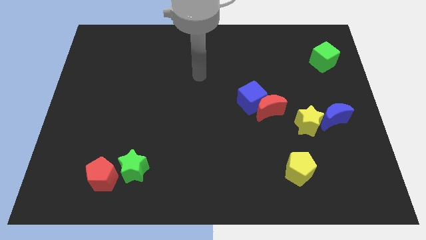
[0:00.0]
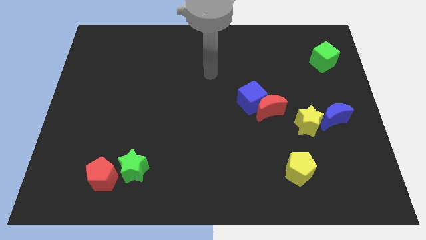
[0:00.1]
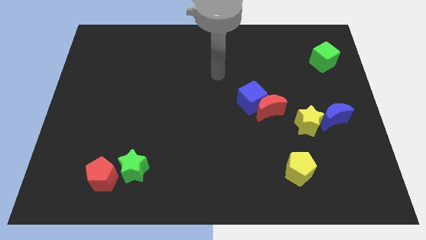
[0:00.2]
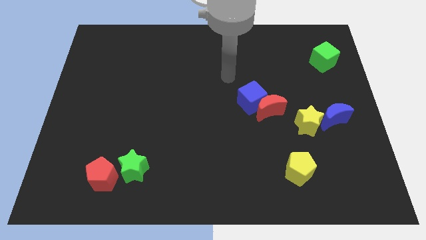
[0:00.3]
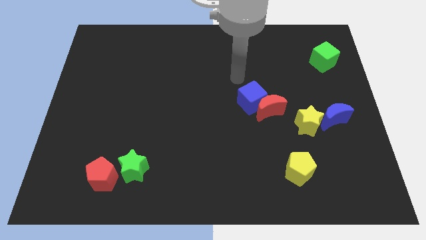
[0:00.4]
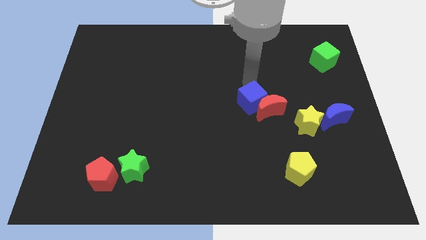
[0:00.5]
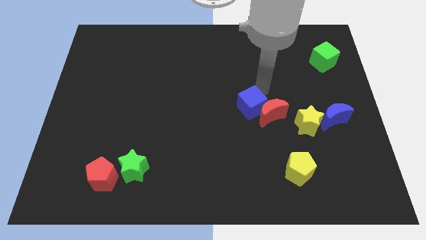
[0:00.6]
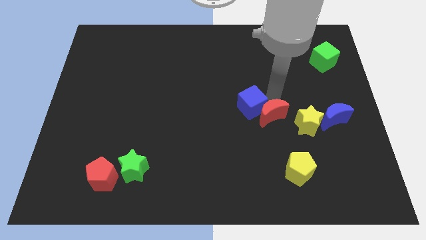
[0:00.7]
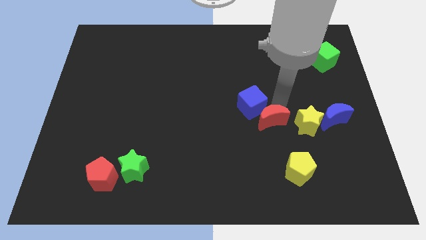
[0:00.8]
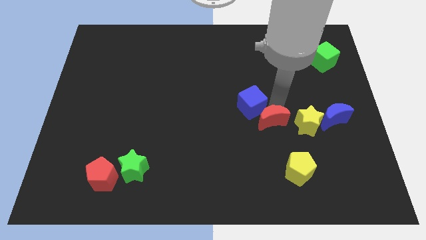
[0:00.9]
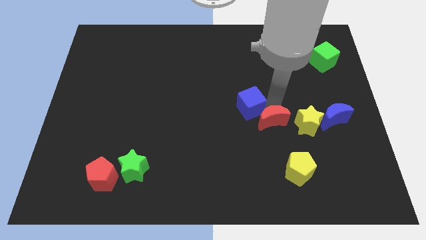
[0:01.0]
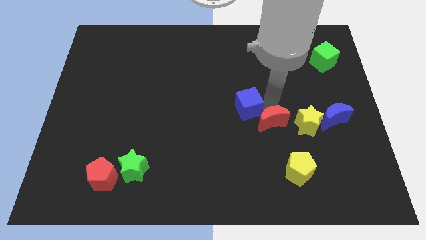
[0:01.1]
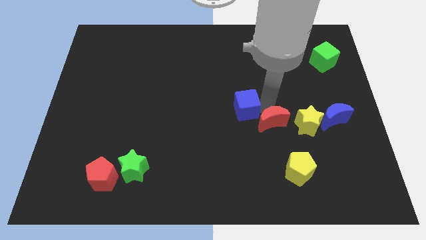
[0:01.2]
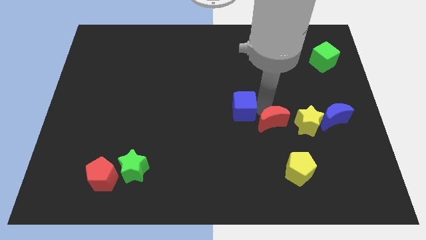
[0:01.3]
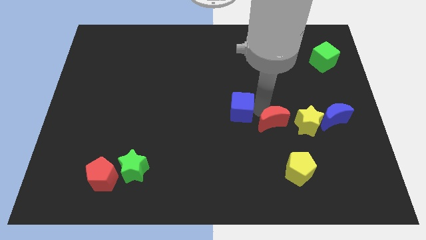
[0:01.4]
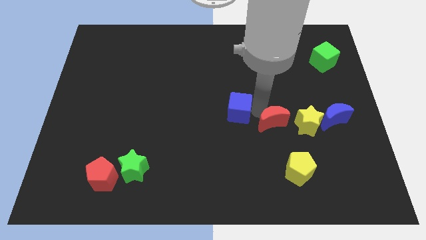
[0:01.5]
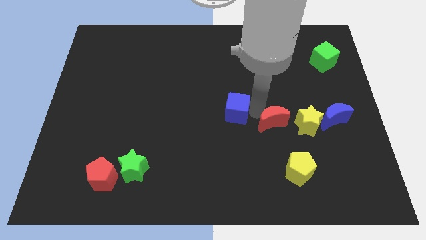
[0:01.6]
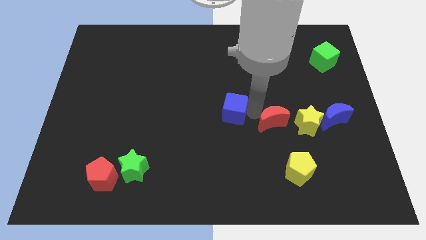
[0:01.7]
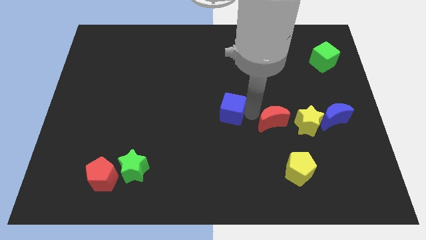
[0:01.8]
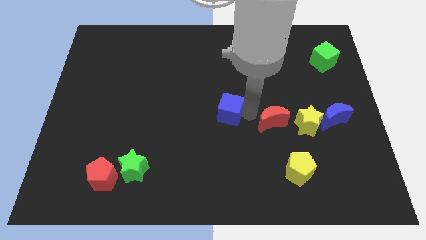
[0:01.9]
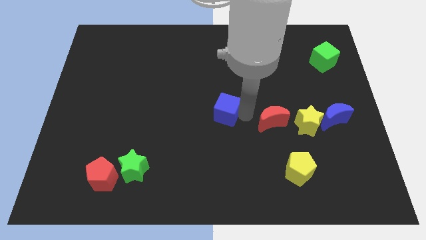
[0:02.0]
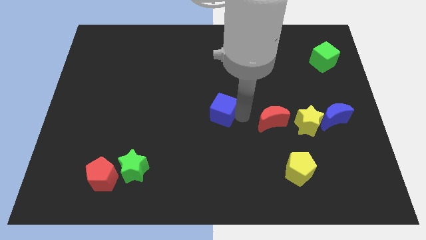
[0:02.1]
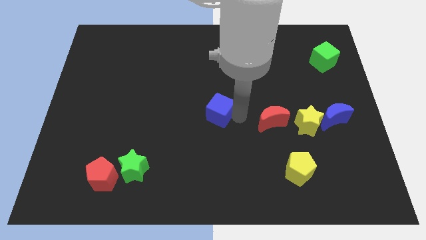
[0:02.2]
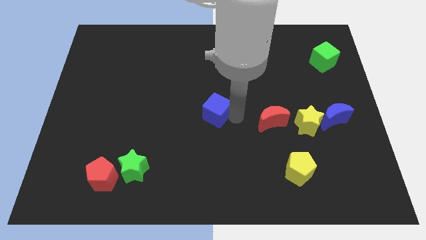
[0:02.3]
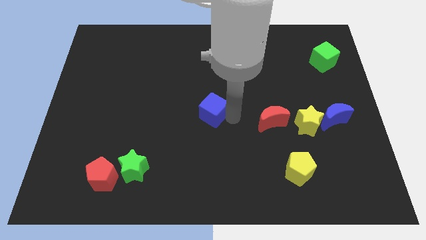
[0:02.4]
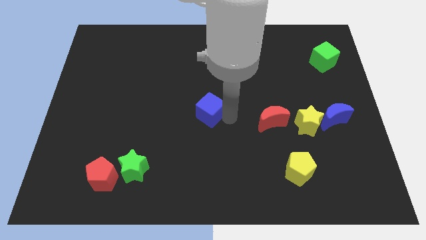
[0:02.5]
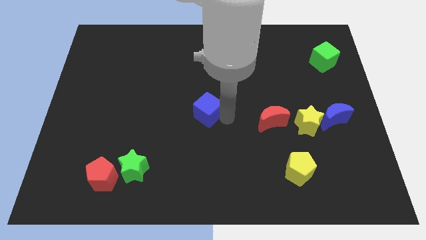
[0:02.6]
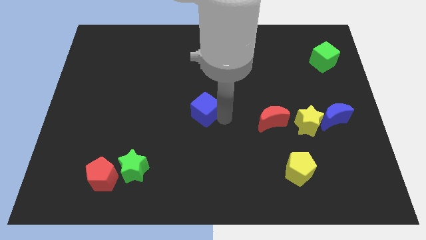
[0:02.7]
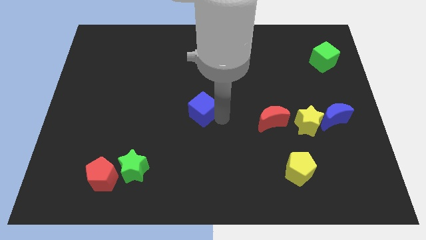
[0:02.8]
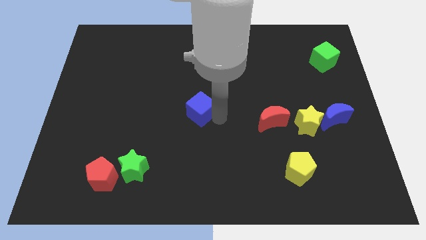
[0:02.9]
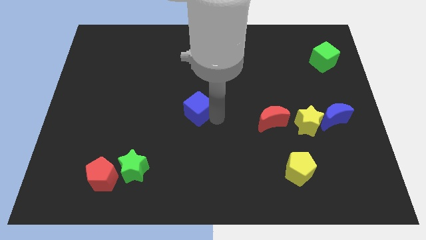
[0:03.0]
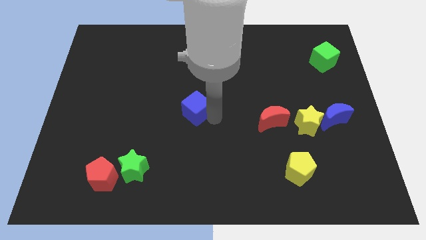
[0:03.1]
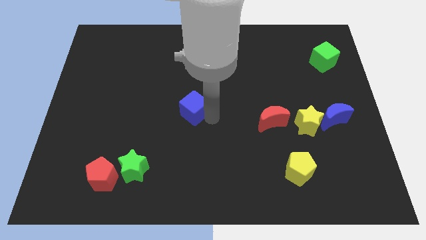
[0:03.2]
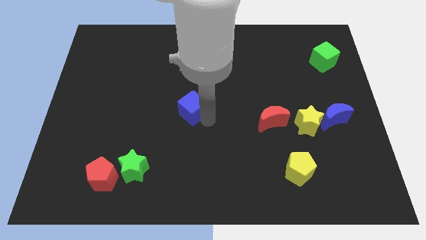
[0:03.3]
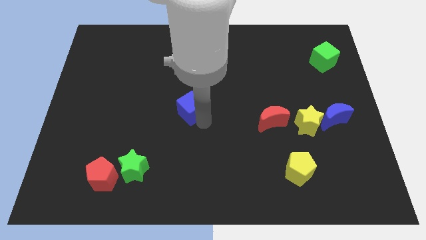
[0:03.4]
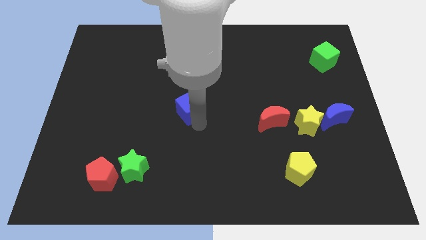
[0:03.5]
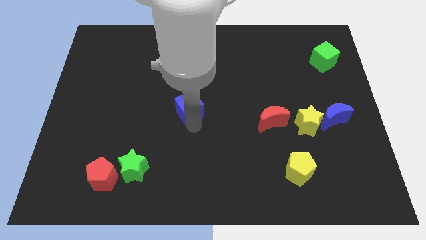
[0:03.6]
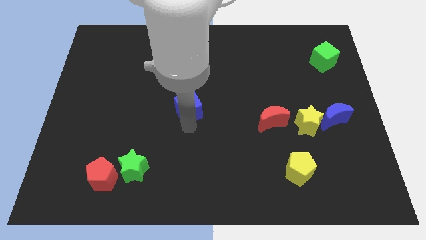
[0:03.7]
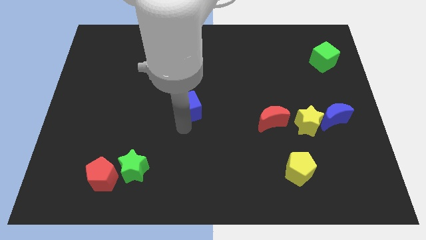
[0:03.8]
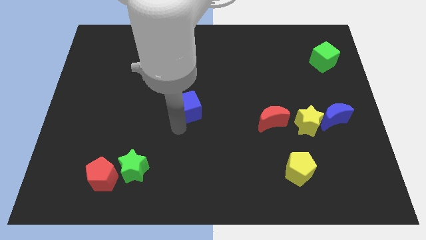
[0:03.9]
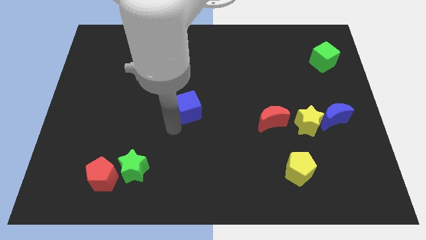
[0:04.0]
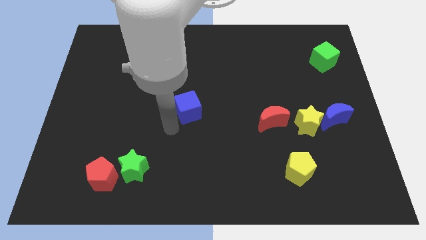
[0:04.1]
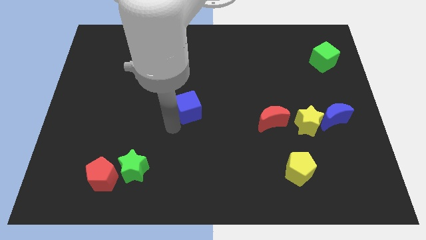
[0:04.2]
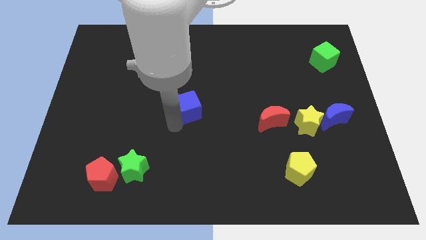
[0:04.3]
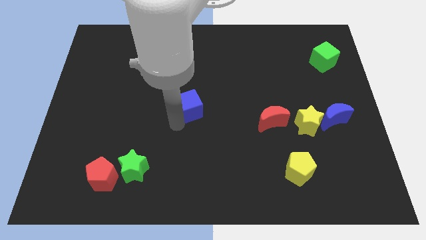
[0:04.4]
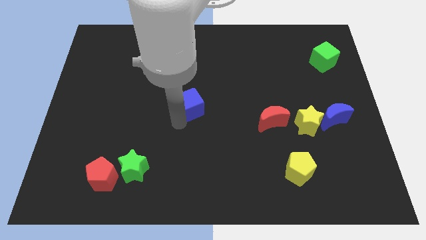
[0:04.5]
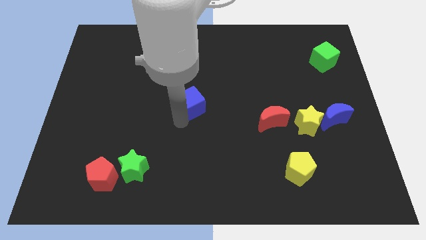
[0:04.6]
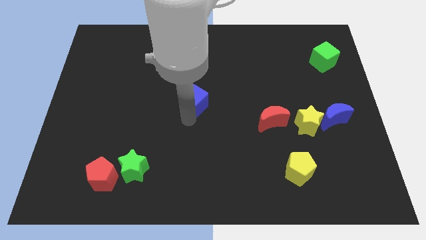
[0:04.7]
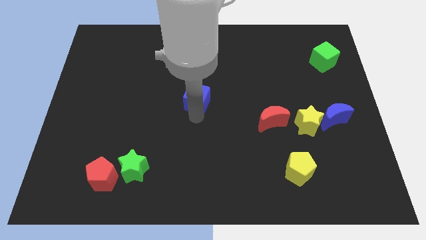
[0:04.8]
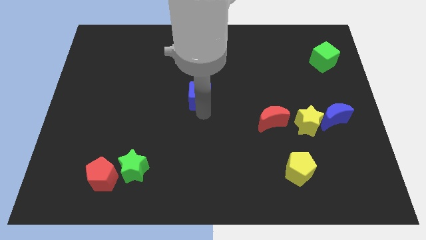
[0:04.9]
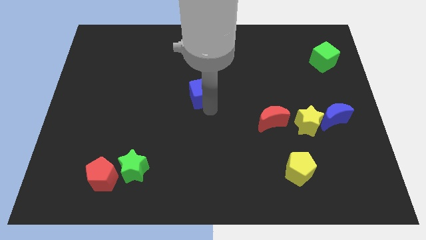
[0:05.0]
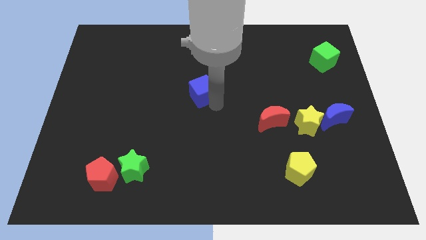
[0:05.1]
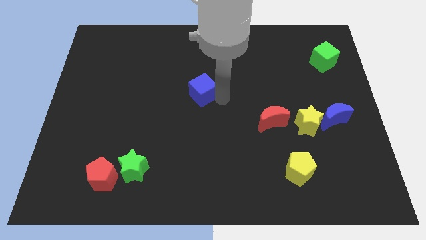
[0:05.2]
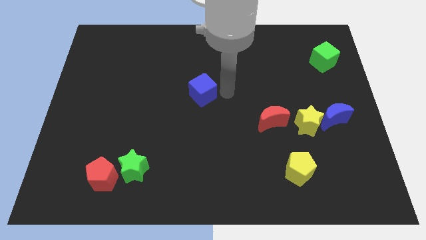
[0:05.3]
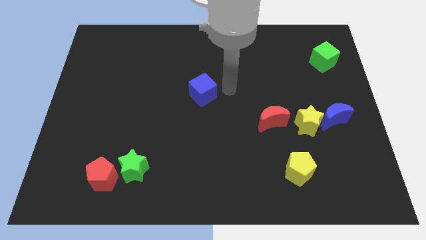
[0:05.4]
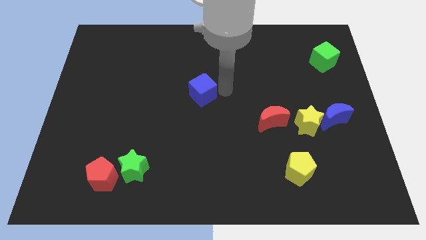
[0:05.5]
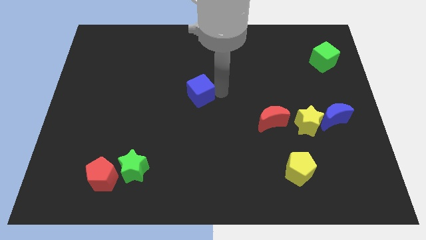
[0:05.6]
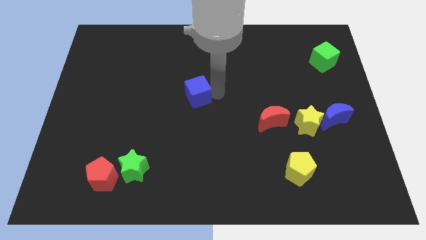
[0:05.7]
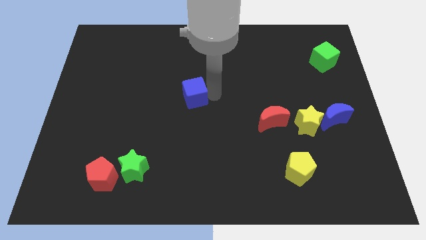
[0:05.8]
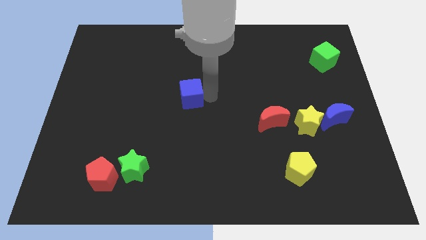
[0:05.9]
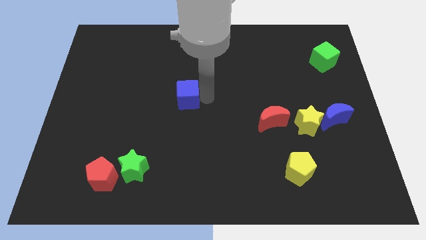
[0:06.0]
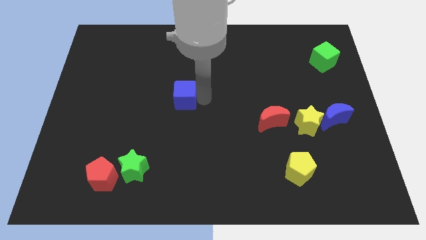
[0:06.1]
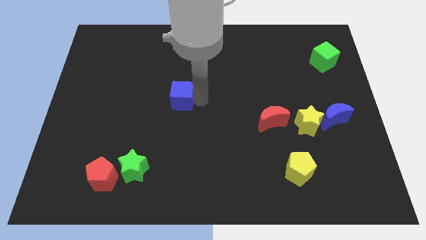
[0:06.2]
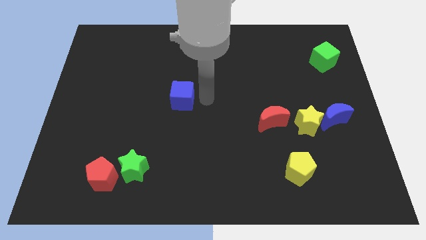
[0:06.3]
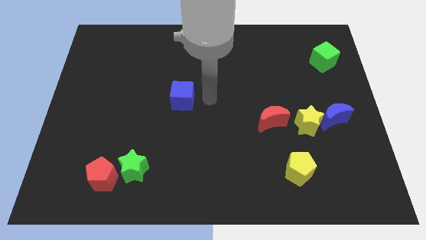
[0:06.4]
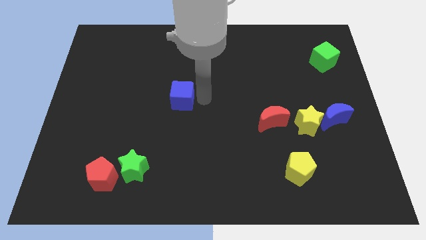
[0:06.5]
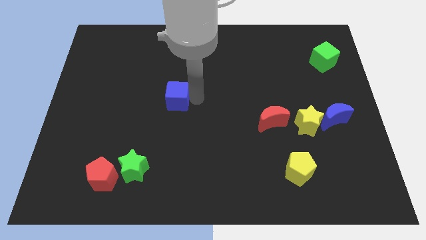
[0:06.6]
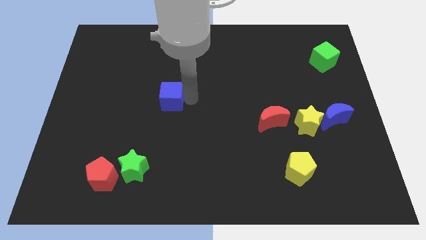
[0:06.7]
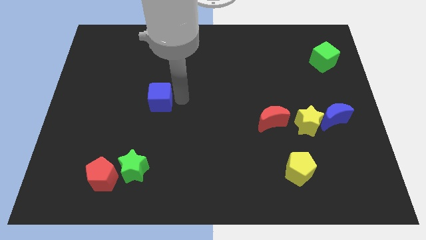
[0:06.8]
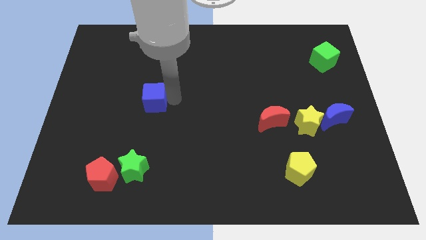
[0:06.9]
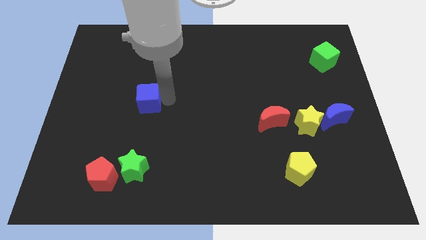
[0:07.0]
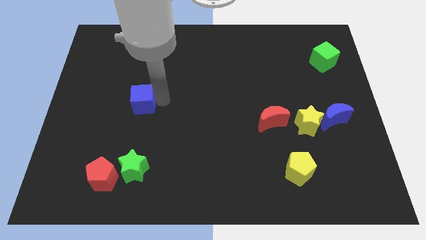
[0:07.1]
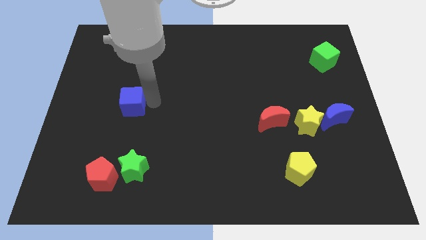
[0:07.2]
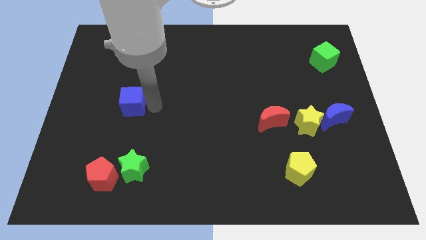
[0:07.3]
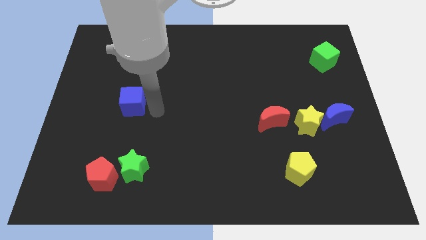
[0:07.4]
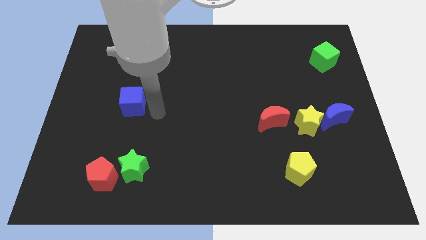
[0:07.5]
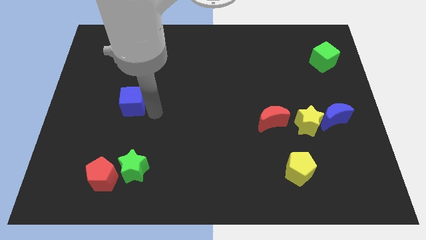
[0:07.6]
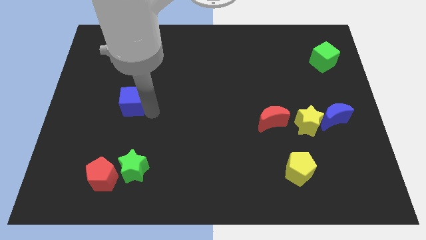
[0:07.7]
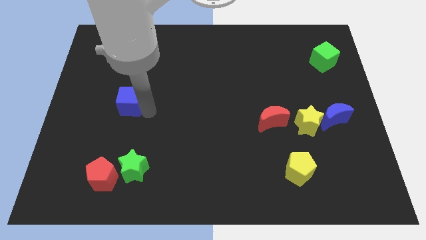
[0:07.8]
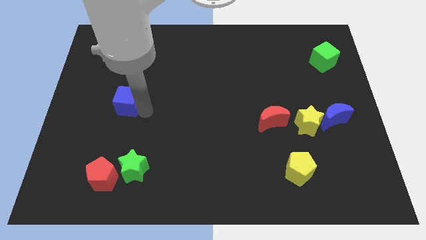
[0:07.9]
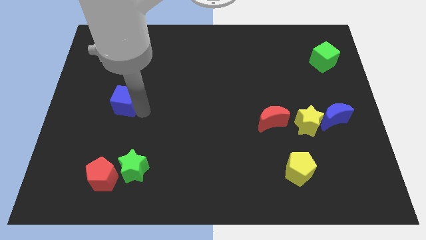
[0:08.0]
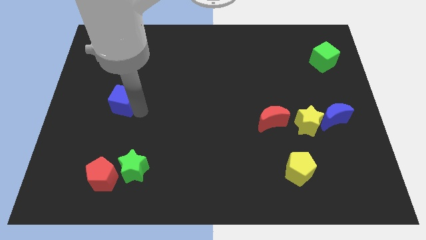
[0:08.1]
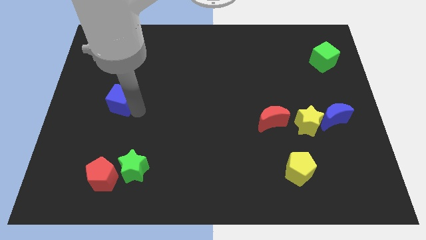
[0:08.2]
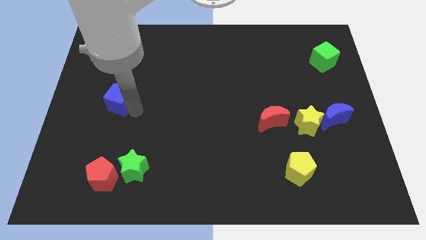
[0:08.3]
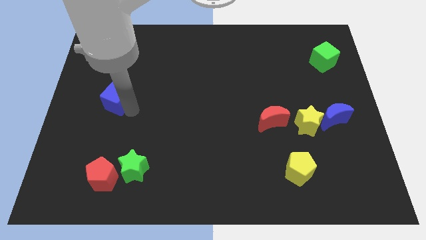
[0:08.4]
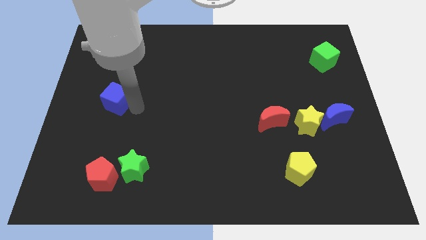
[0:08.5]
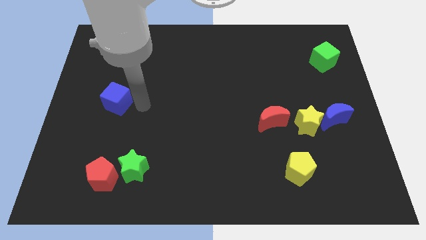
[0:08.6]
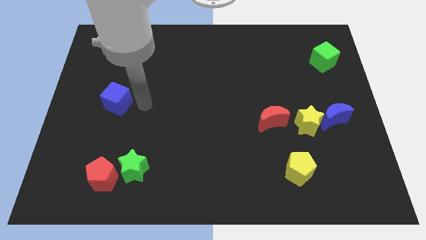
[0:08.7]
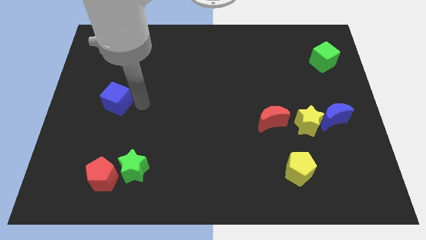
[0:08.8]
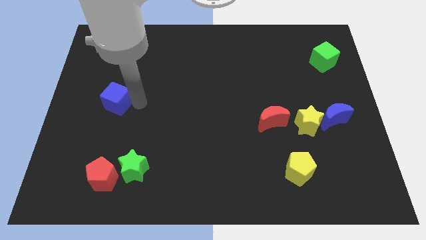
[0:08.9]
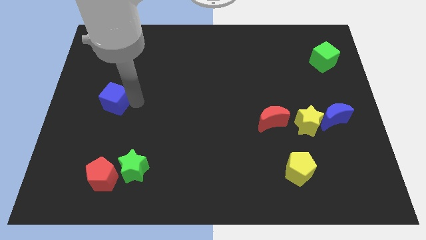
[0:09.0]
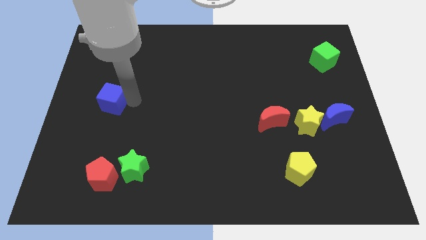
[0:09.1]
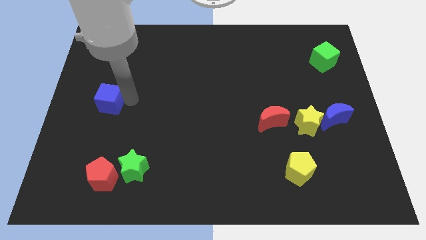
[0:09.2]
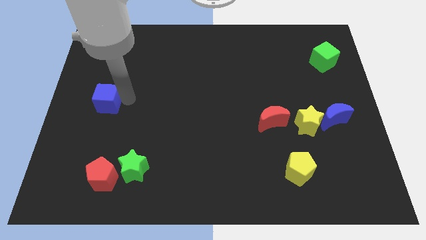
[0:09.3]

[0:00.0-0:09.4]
push the blue cube to the left side
